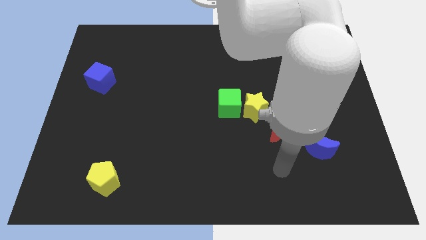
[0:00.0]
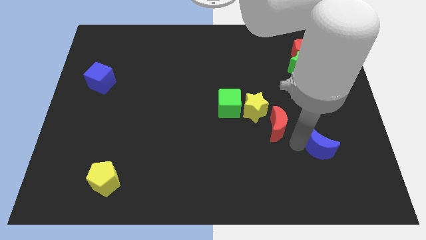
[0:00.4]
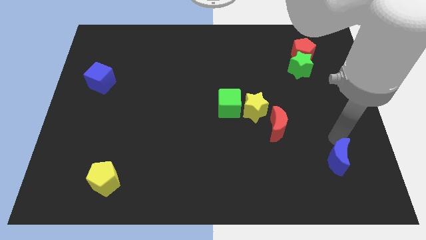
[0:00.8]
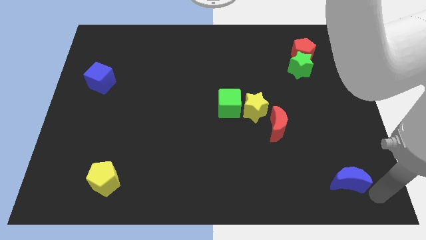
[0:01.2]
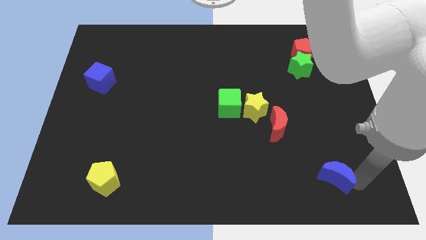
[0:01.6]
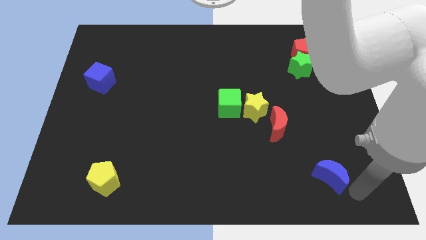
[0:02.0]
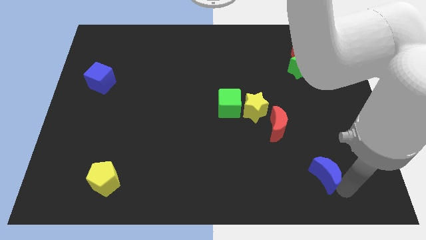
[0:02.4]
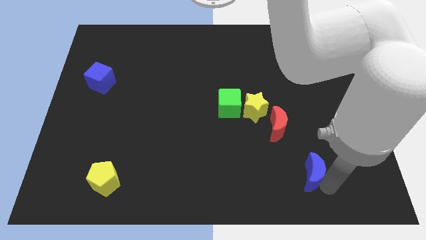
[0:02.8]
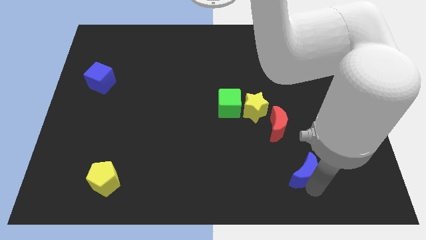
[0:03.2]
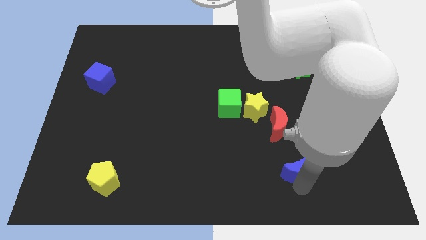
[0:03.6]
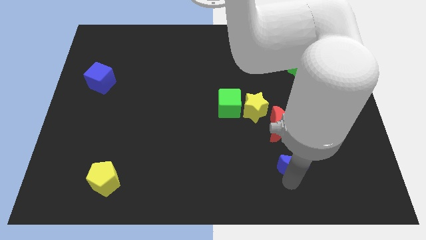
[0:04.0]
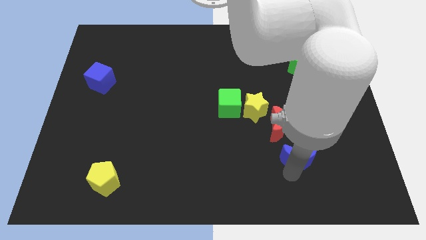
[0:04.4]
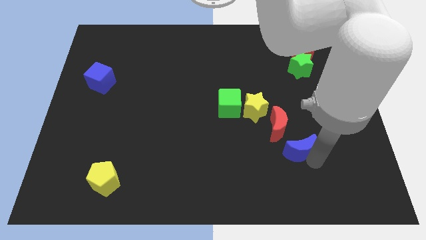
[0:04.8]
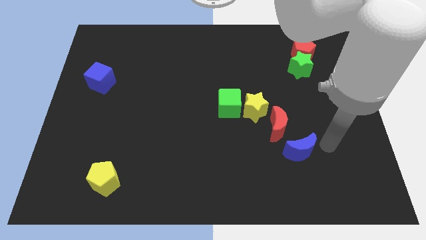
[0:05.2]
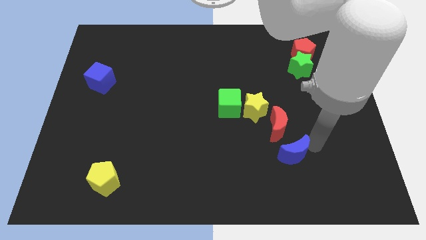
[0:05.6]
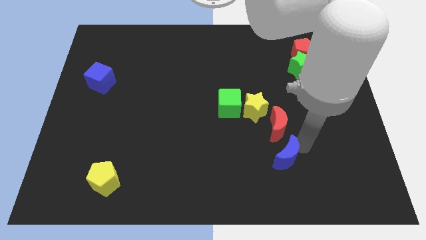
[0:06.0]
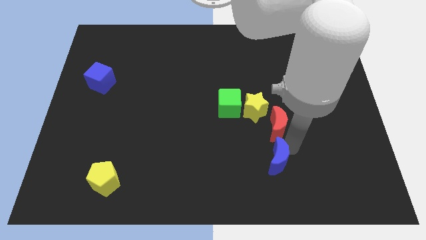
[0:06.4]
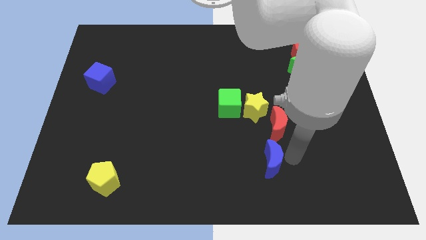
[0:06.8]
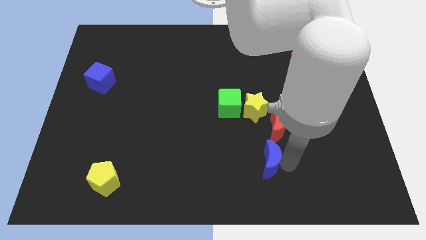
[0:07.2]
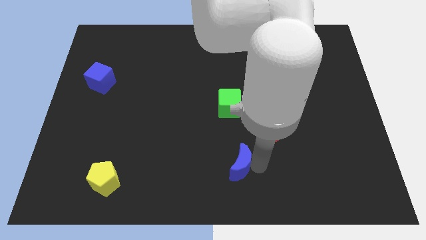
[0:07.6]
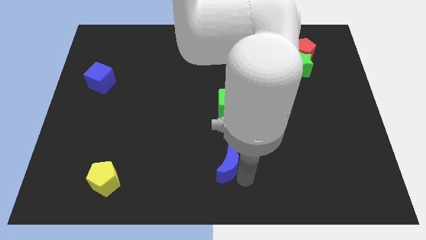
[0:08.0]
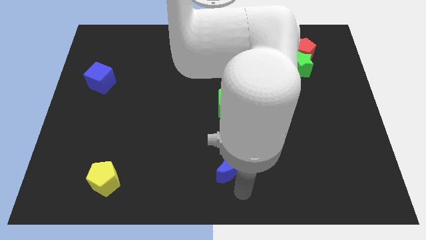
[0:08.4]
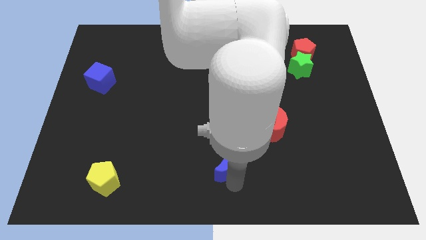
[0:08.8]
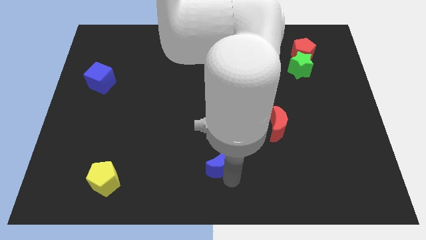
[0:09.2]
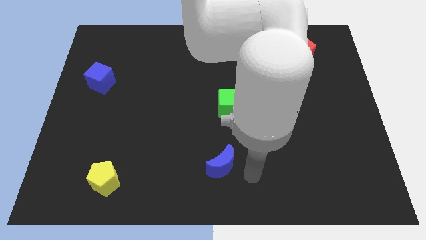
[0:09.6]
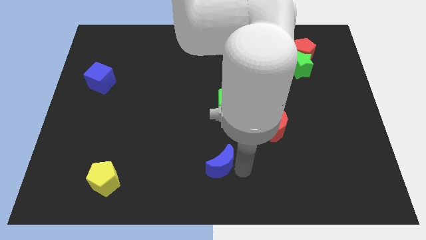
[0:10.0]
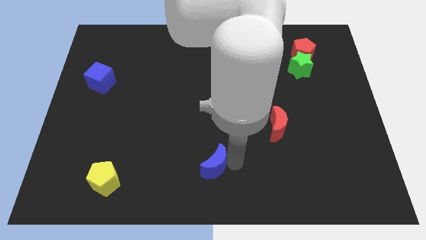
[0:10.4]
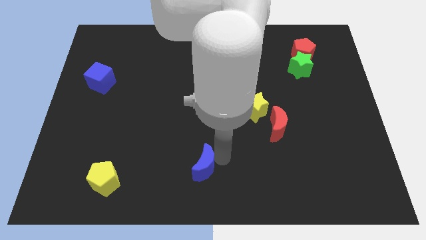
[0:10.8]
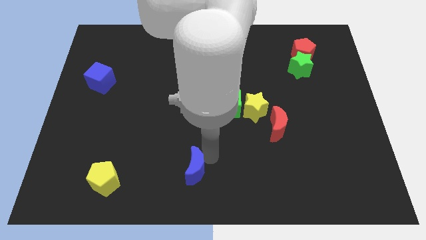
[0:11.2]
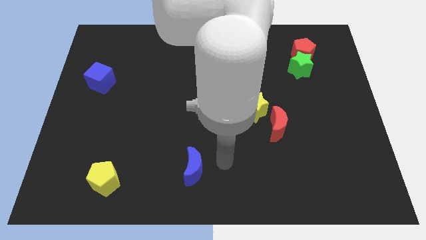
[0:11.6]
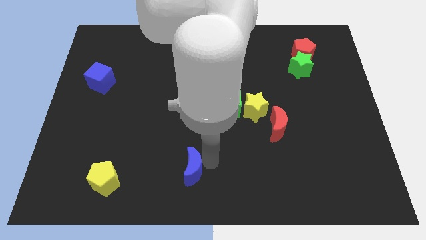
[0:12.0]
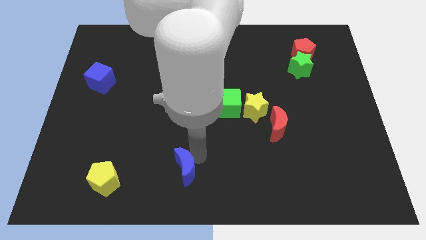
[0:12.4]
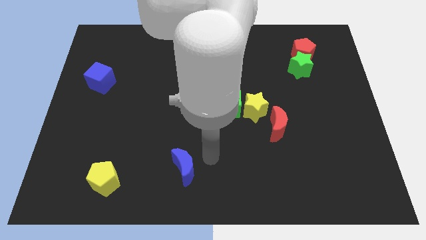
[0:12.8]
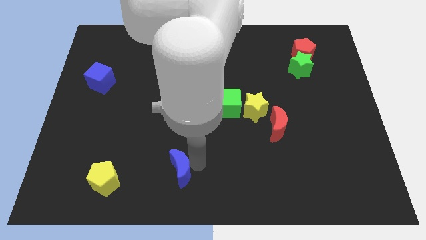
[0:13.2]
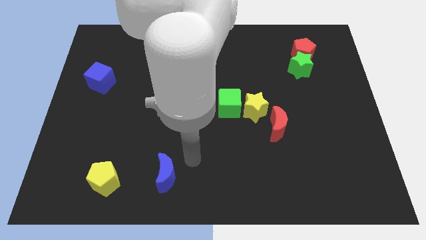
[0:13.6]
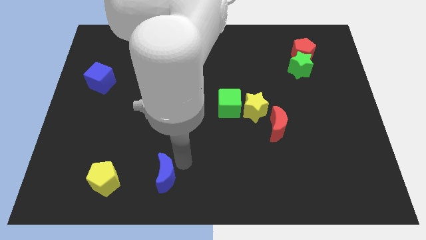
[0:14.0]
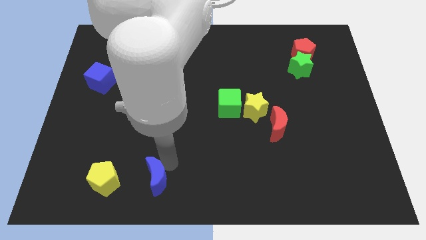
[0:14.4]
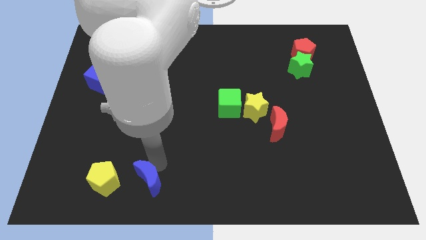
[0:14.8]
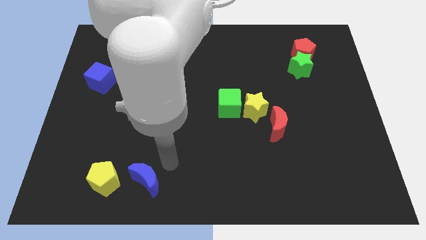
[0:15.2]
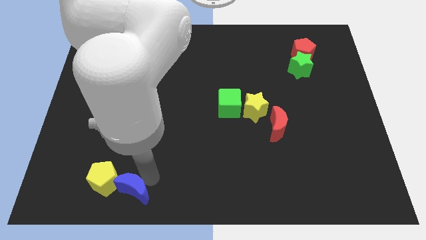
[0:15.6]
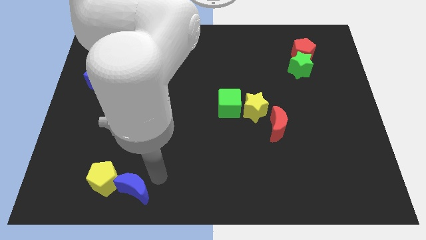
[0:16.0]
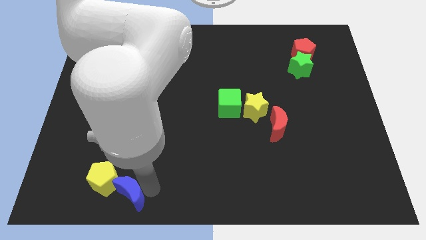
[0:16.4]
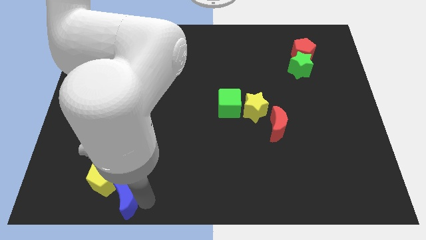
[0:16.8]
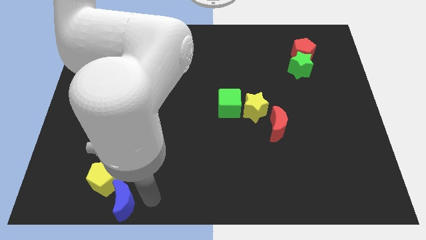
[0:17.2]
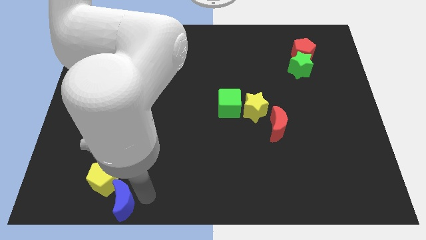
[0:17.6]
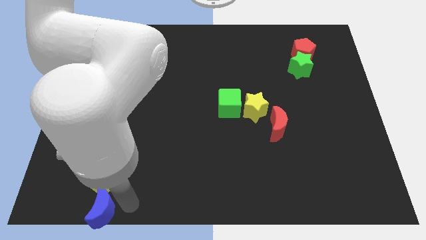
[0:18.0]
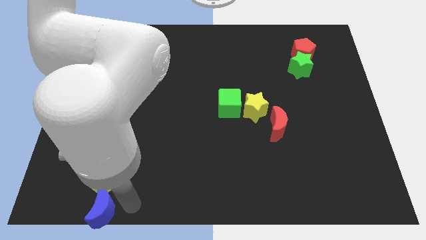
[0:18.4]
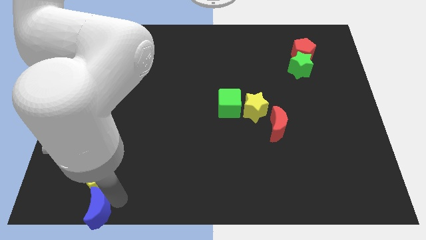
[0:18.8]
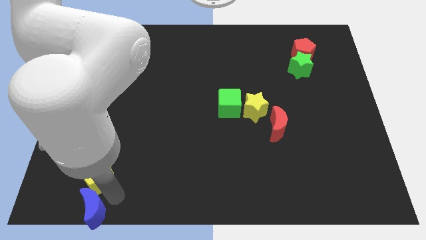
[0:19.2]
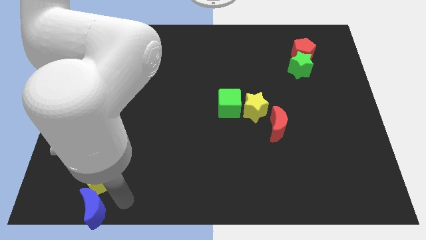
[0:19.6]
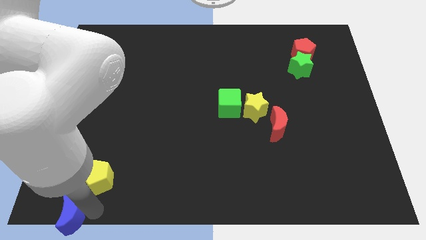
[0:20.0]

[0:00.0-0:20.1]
push the blue moon to the lower left corner

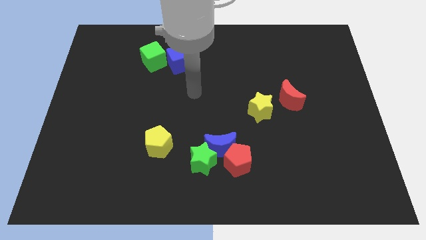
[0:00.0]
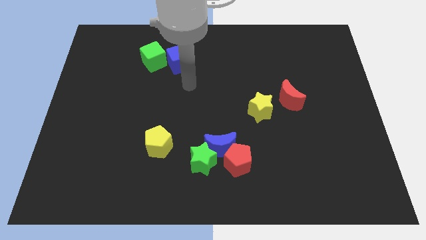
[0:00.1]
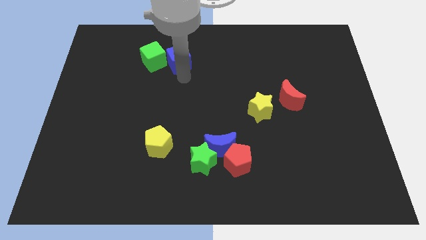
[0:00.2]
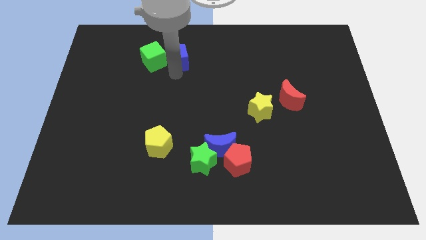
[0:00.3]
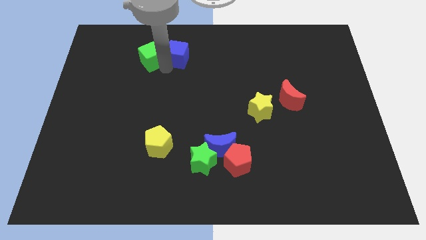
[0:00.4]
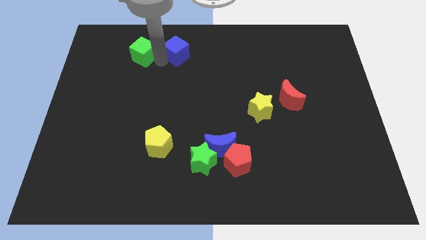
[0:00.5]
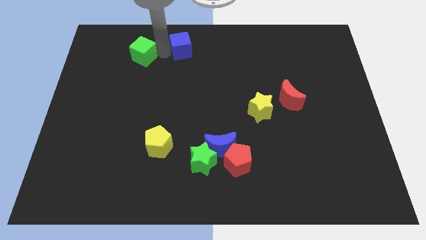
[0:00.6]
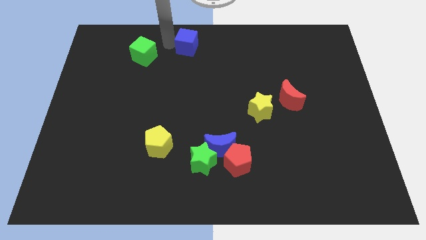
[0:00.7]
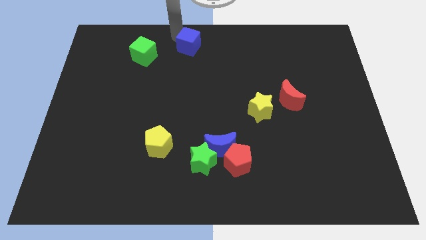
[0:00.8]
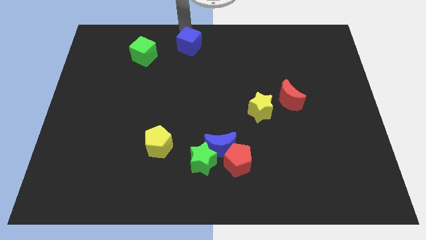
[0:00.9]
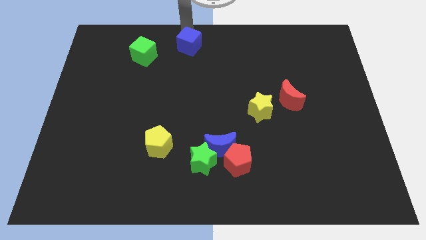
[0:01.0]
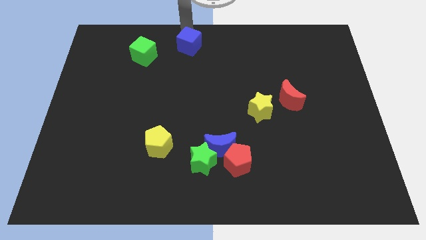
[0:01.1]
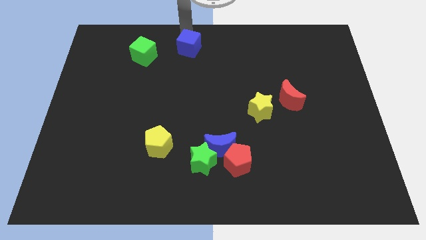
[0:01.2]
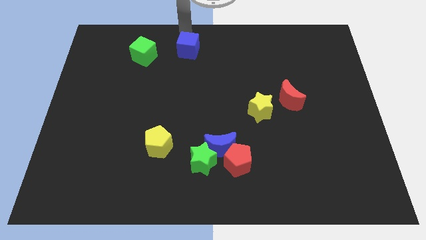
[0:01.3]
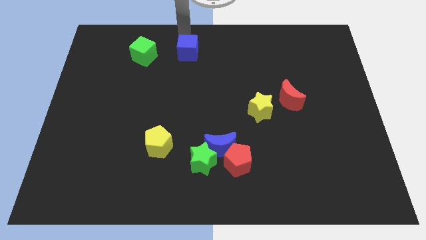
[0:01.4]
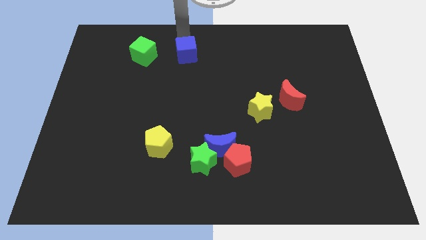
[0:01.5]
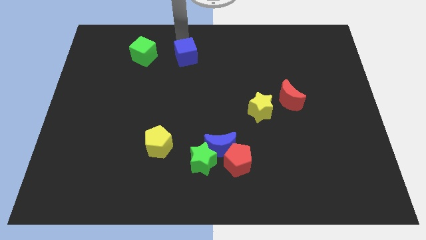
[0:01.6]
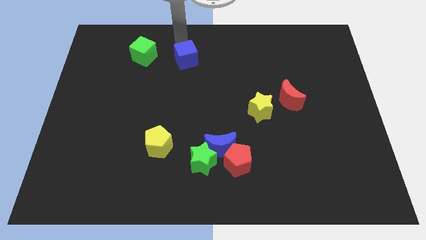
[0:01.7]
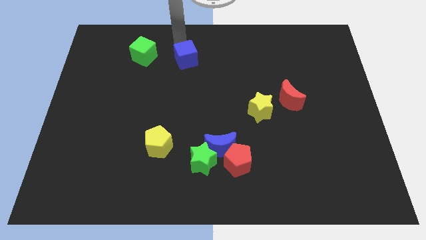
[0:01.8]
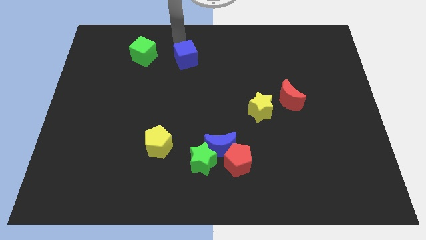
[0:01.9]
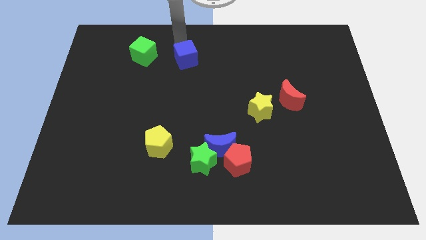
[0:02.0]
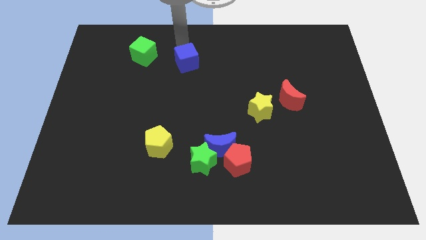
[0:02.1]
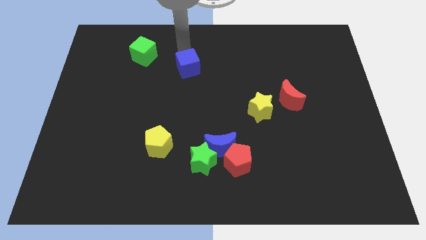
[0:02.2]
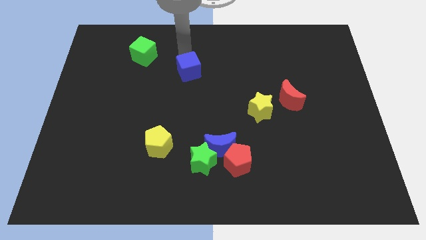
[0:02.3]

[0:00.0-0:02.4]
push the blue cube to the middle of the board
